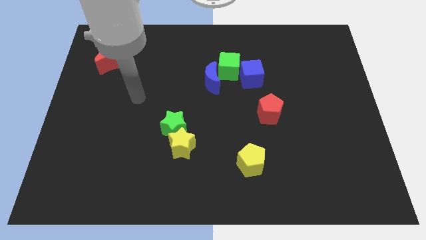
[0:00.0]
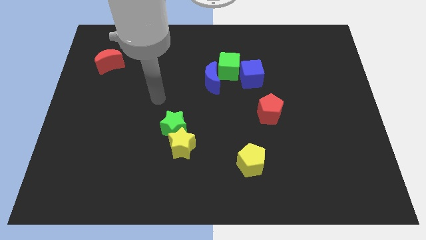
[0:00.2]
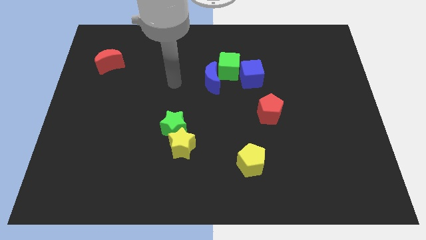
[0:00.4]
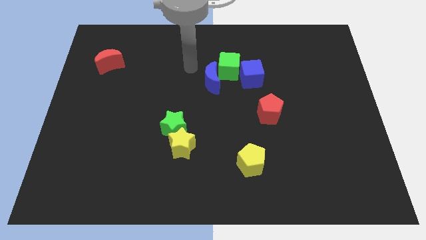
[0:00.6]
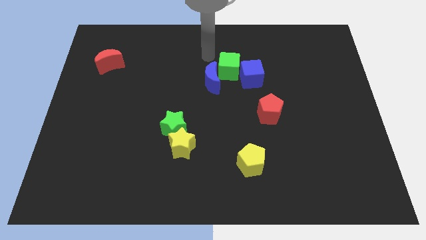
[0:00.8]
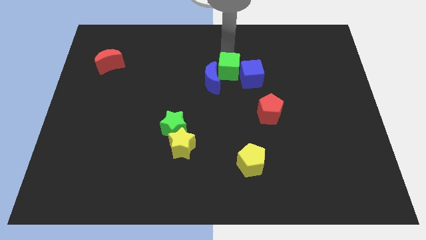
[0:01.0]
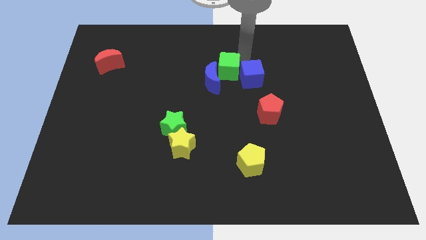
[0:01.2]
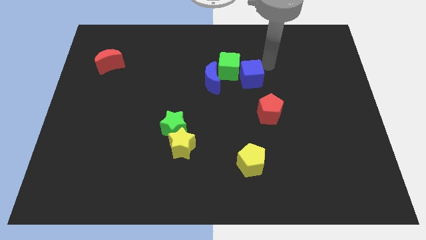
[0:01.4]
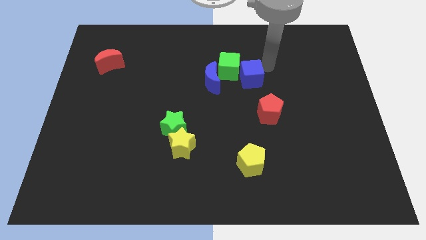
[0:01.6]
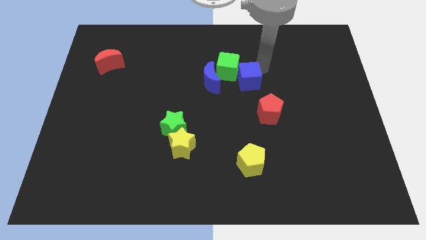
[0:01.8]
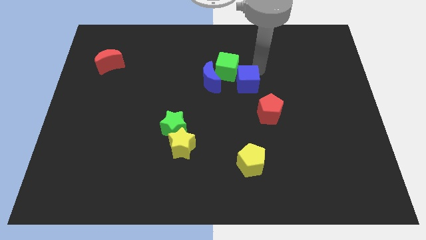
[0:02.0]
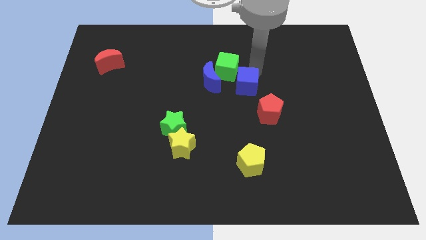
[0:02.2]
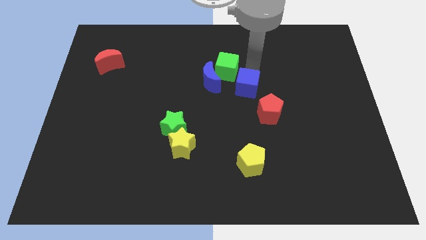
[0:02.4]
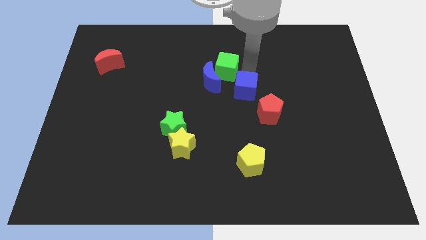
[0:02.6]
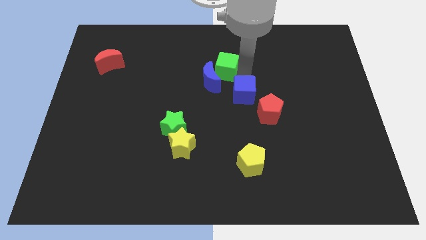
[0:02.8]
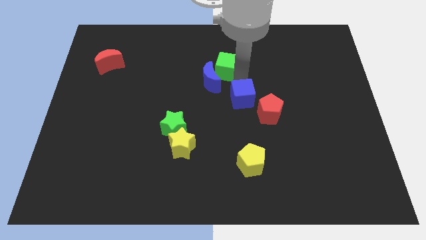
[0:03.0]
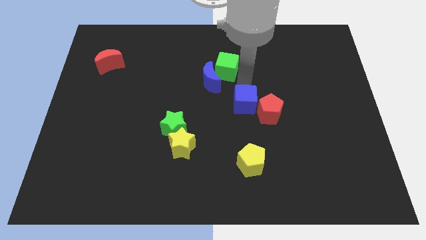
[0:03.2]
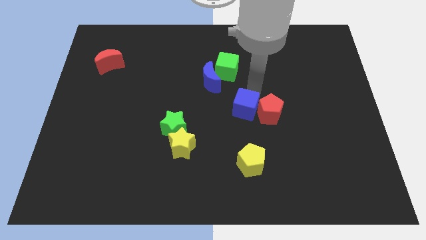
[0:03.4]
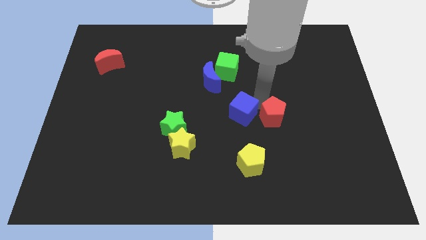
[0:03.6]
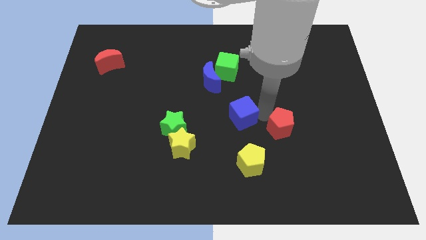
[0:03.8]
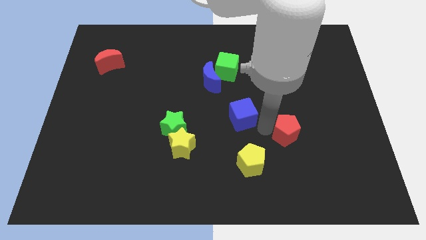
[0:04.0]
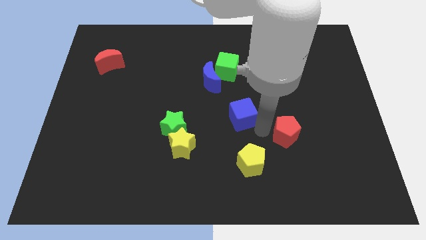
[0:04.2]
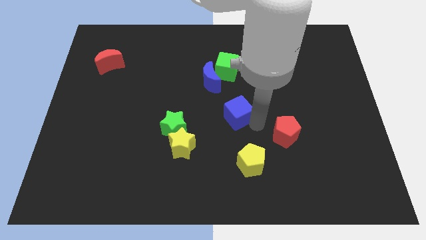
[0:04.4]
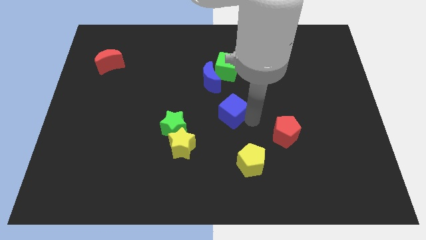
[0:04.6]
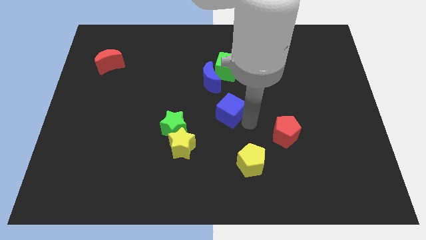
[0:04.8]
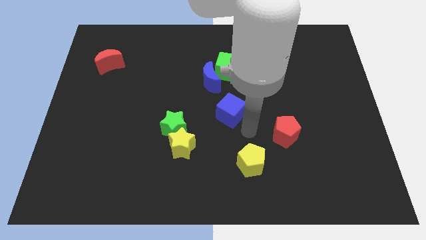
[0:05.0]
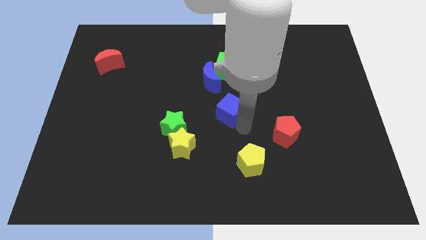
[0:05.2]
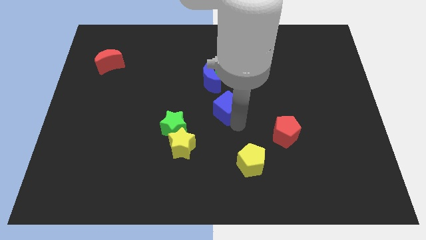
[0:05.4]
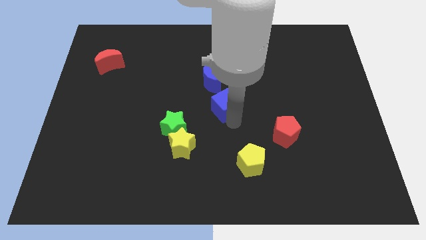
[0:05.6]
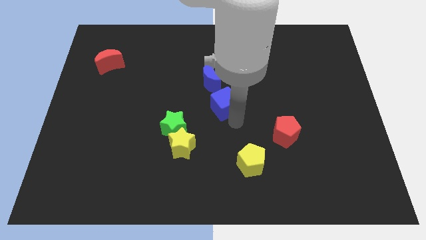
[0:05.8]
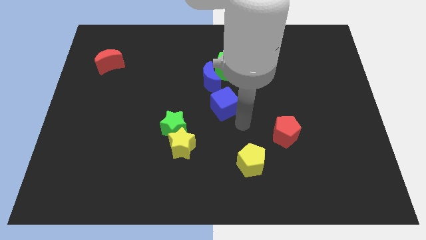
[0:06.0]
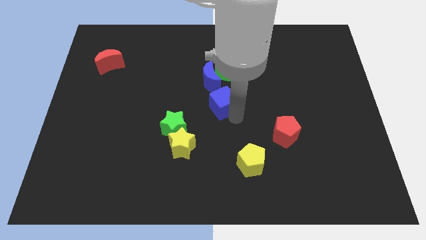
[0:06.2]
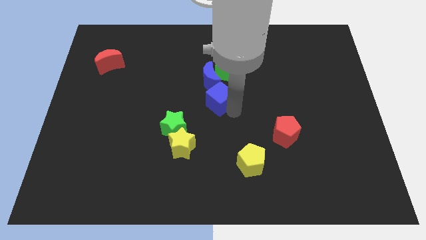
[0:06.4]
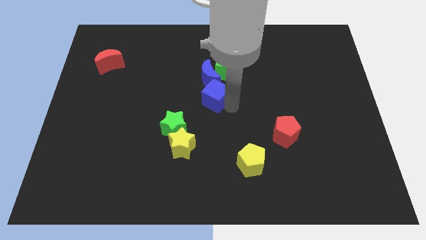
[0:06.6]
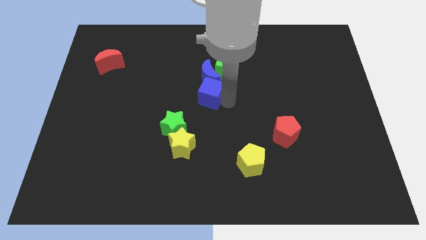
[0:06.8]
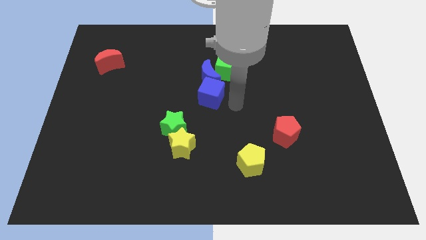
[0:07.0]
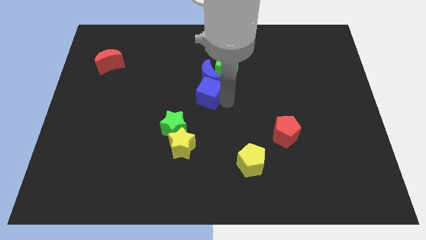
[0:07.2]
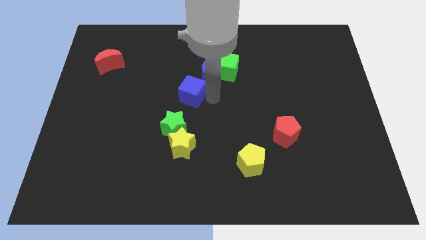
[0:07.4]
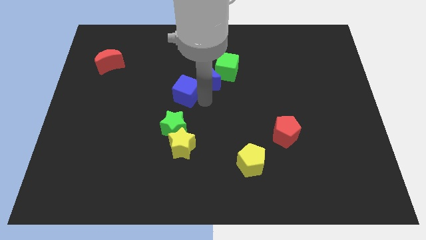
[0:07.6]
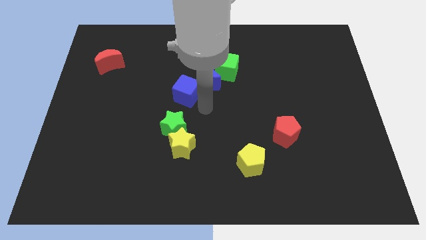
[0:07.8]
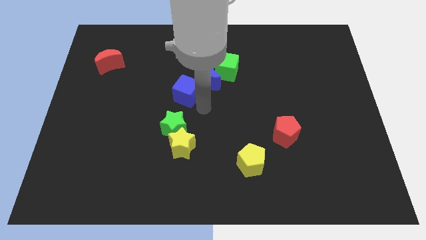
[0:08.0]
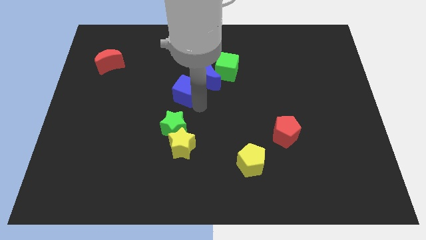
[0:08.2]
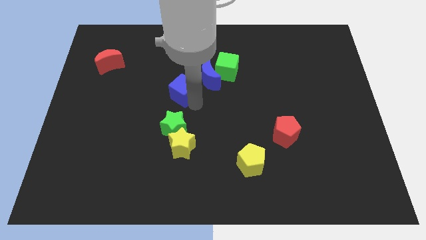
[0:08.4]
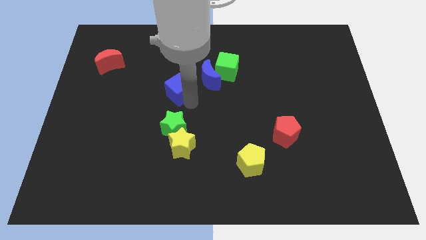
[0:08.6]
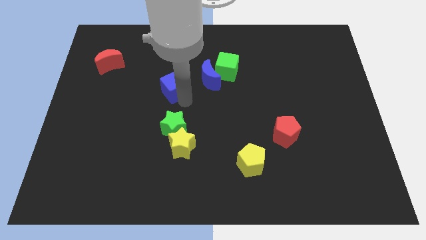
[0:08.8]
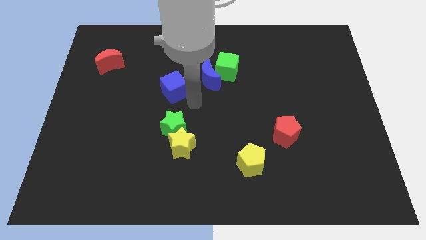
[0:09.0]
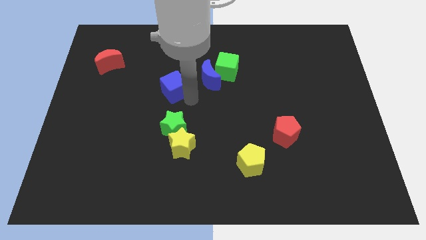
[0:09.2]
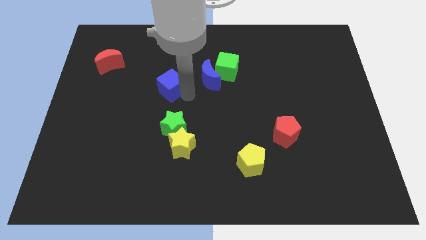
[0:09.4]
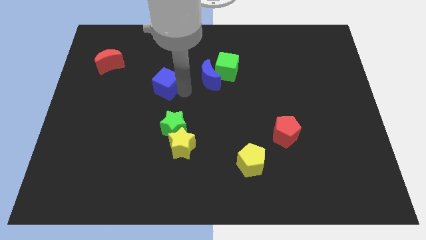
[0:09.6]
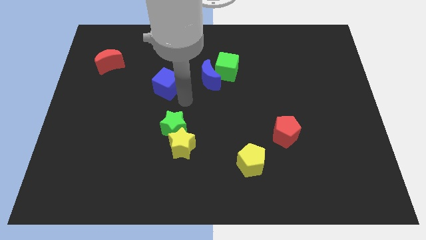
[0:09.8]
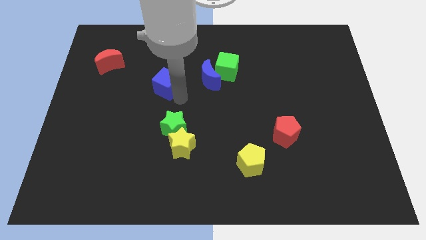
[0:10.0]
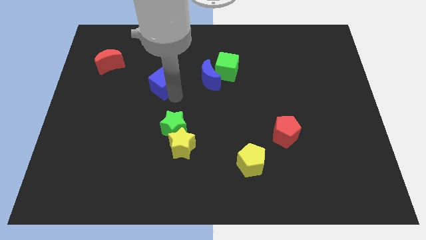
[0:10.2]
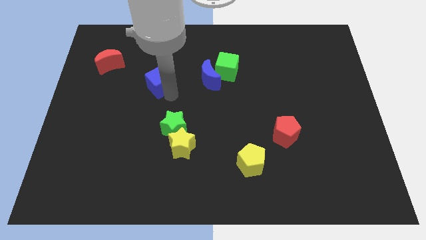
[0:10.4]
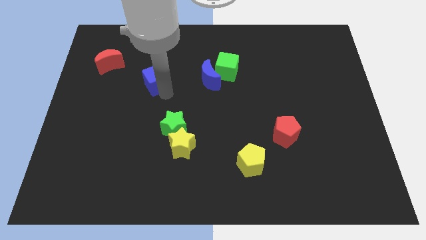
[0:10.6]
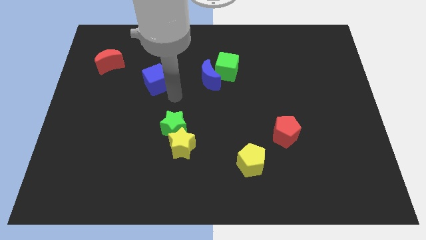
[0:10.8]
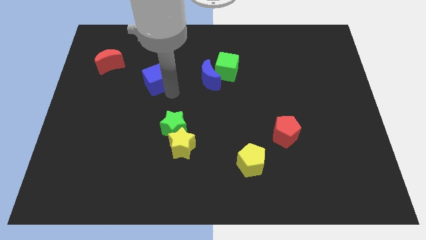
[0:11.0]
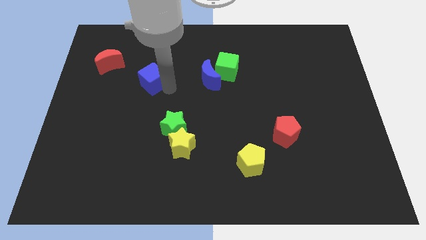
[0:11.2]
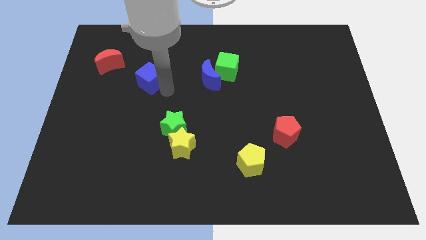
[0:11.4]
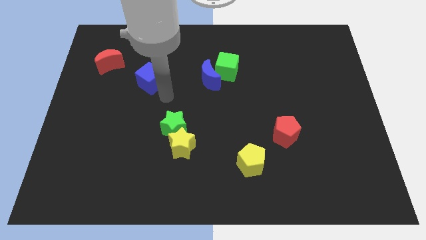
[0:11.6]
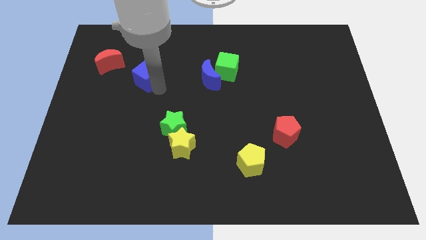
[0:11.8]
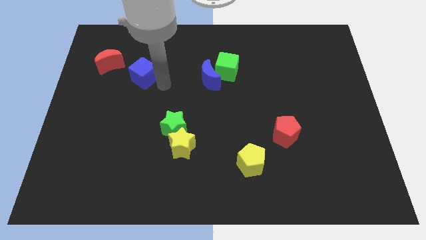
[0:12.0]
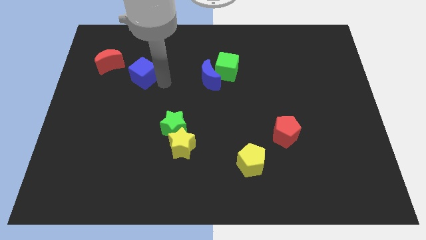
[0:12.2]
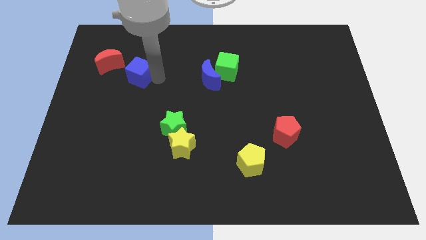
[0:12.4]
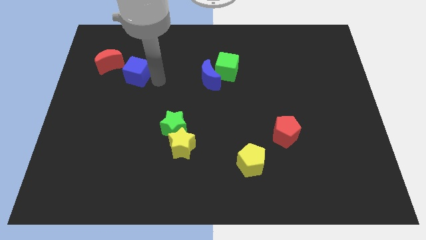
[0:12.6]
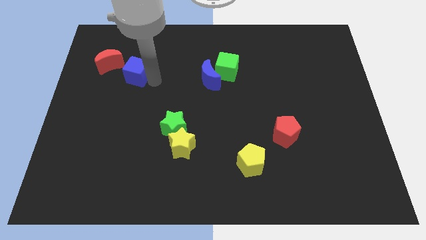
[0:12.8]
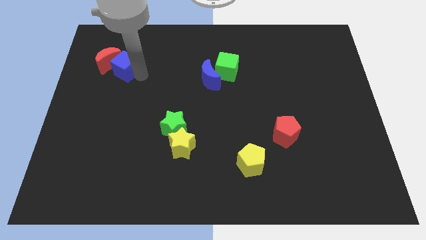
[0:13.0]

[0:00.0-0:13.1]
slide the blue cube towards the red moon
